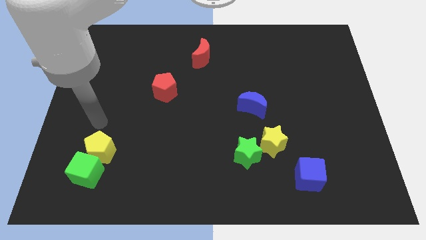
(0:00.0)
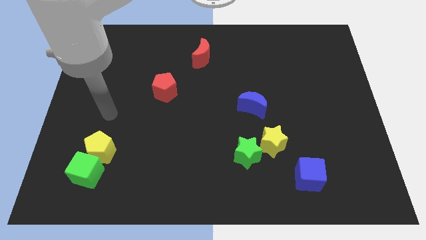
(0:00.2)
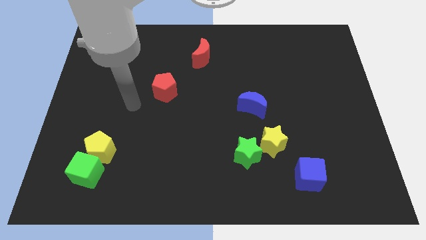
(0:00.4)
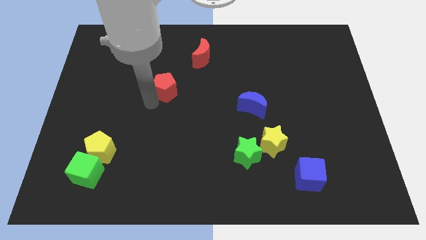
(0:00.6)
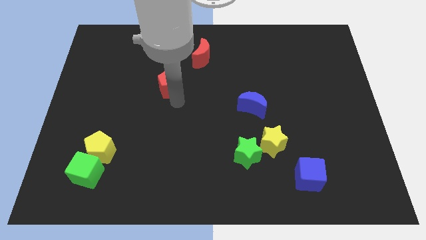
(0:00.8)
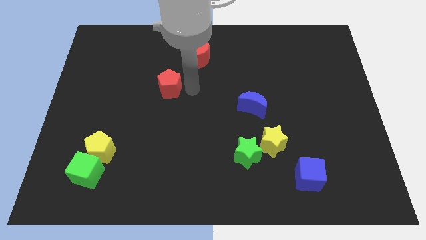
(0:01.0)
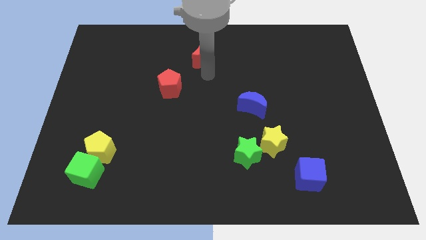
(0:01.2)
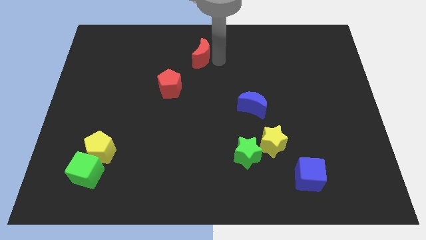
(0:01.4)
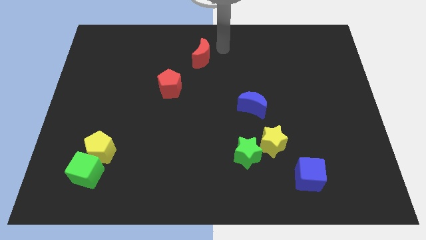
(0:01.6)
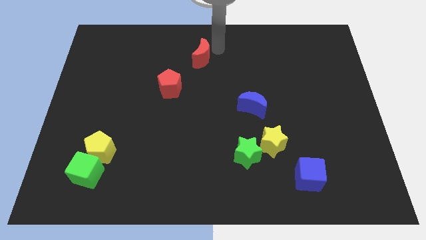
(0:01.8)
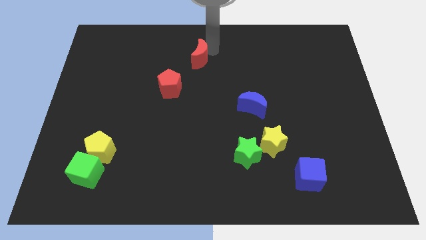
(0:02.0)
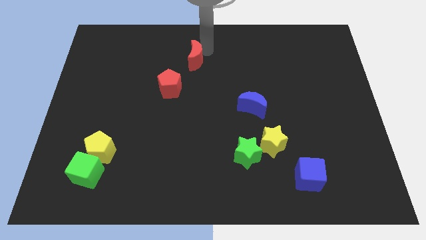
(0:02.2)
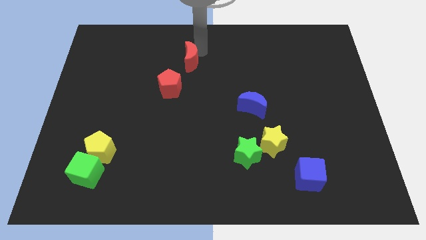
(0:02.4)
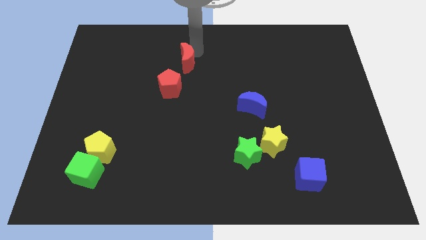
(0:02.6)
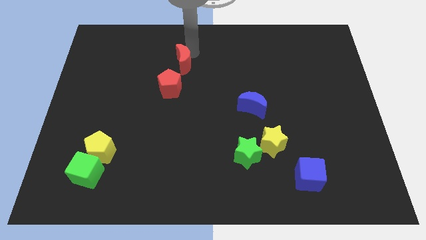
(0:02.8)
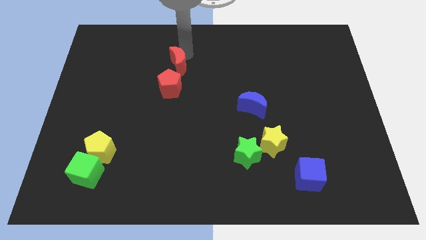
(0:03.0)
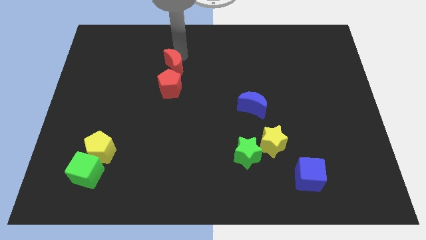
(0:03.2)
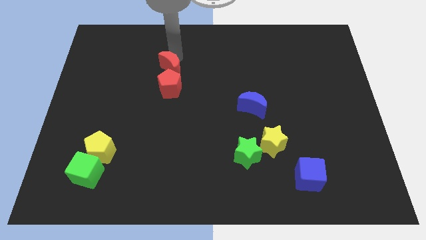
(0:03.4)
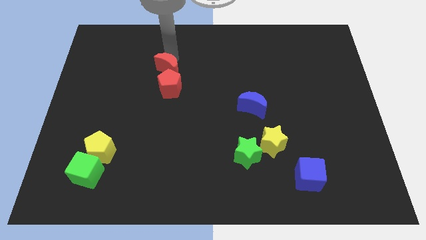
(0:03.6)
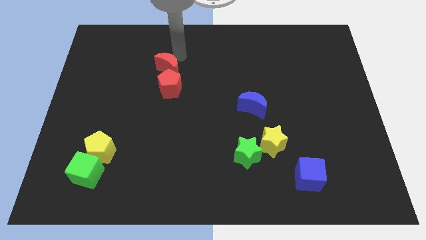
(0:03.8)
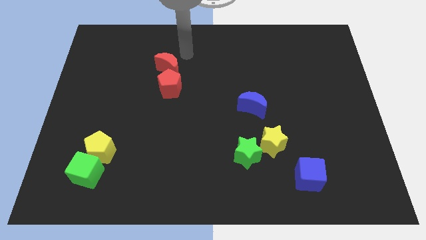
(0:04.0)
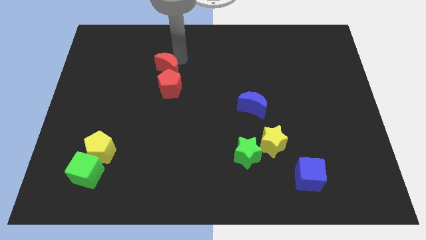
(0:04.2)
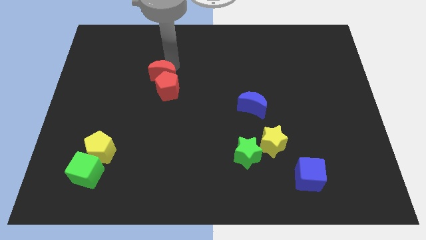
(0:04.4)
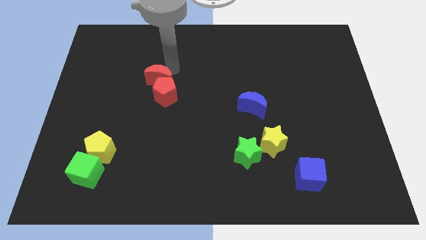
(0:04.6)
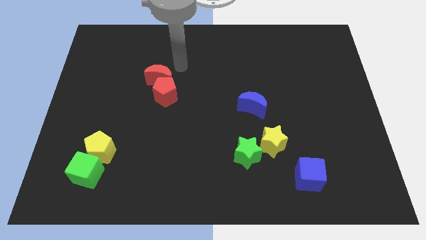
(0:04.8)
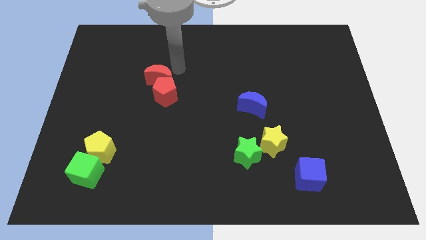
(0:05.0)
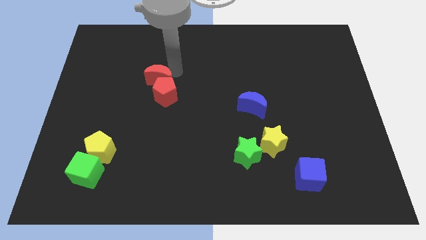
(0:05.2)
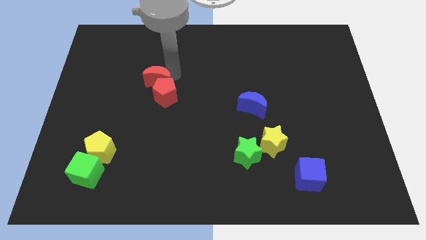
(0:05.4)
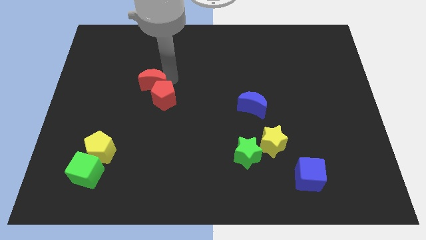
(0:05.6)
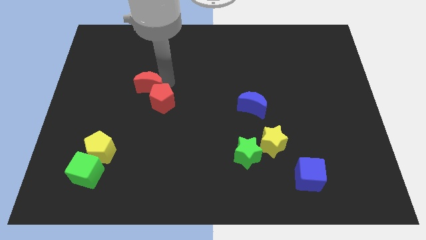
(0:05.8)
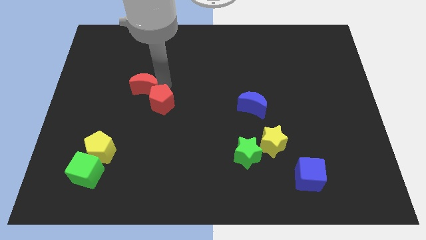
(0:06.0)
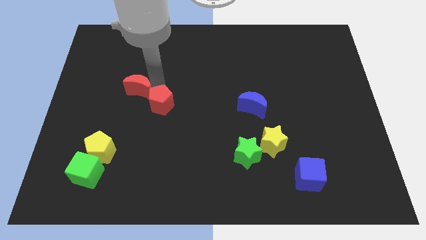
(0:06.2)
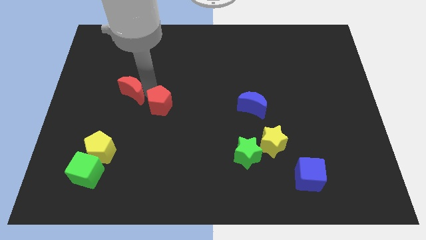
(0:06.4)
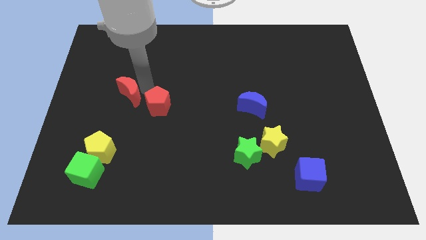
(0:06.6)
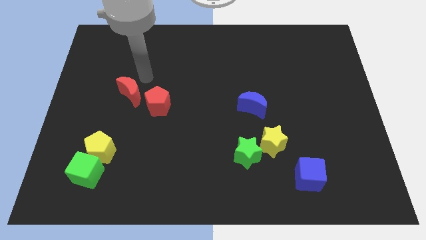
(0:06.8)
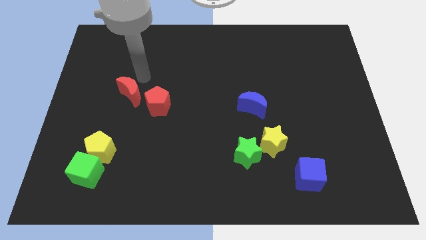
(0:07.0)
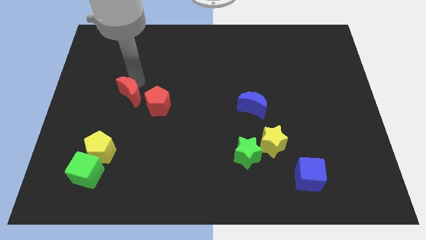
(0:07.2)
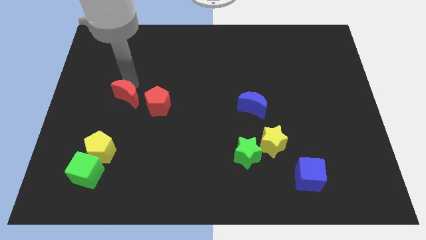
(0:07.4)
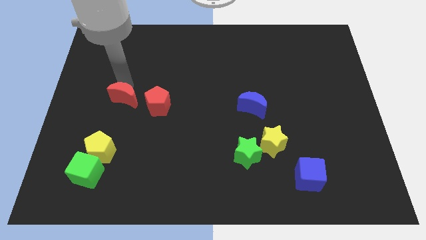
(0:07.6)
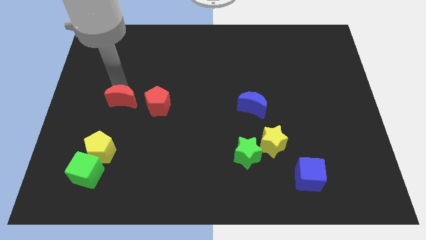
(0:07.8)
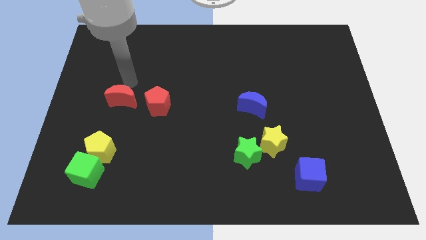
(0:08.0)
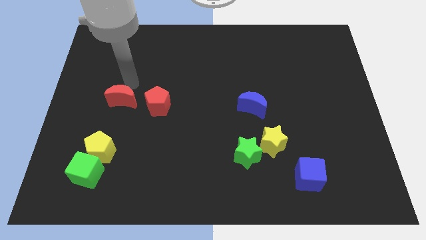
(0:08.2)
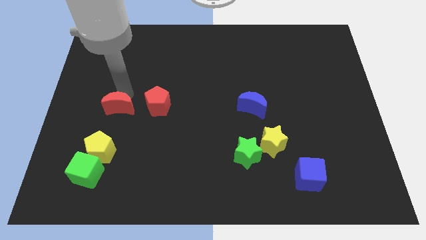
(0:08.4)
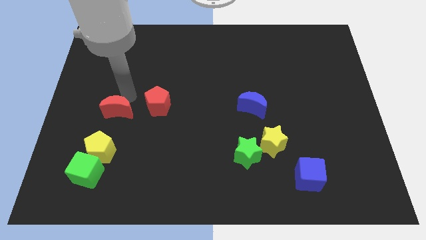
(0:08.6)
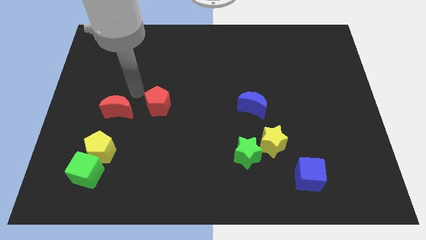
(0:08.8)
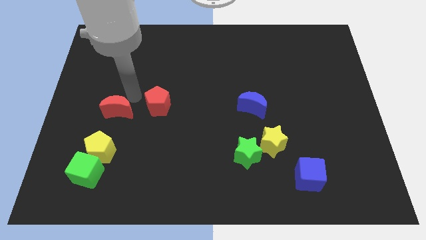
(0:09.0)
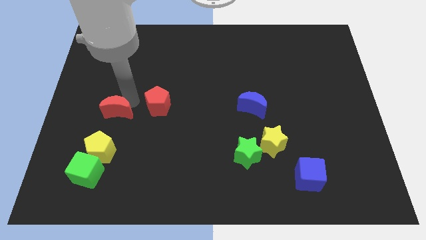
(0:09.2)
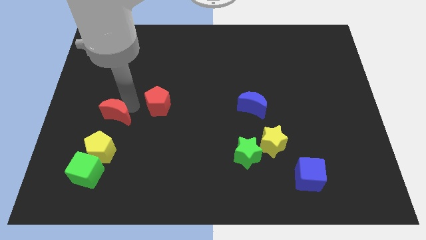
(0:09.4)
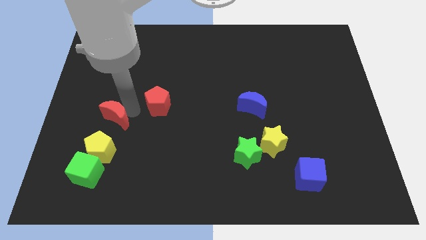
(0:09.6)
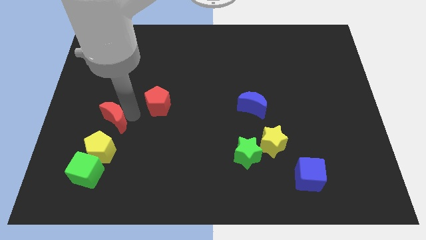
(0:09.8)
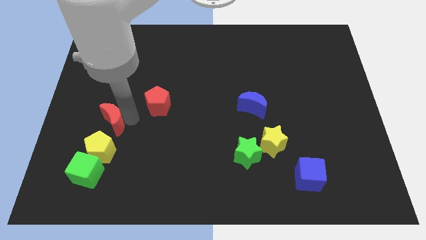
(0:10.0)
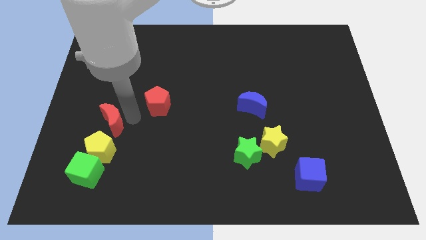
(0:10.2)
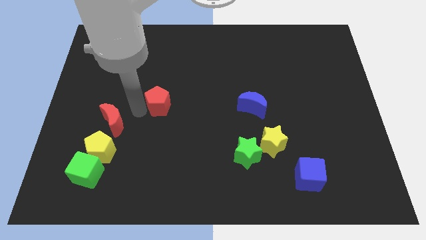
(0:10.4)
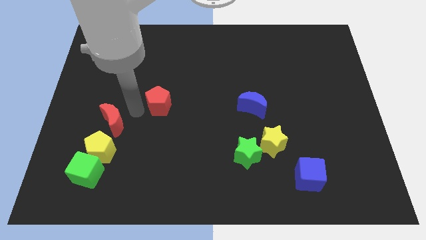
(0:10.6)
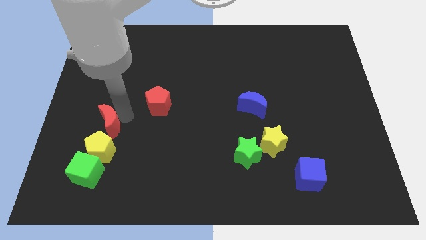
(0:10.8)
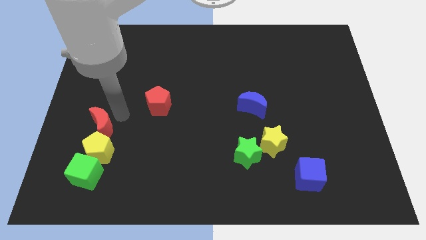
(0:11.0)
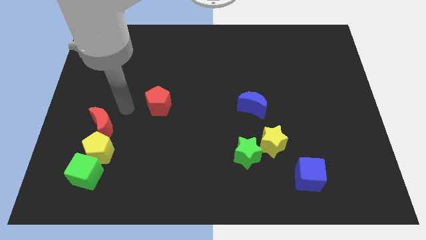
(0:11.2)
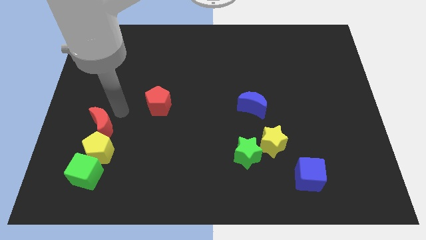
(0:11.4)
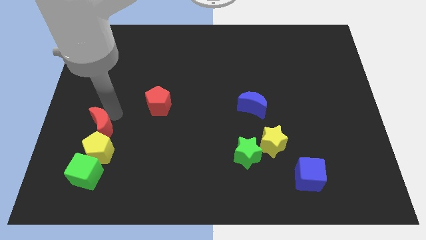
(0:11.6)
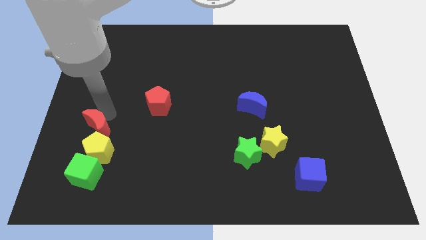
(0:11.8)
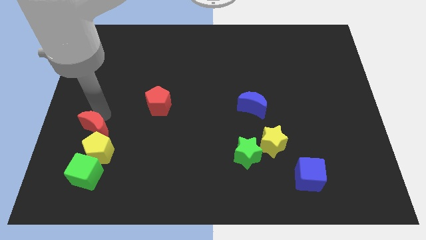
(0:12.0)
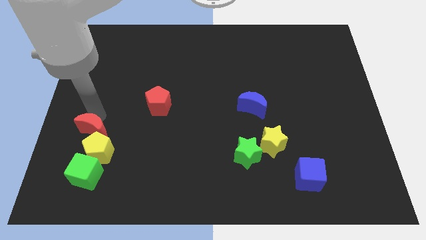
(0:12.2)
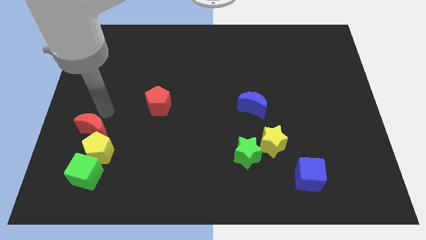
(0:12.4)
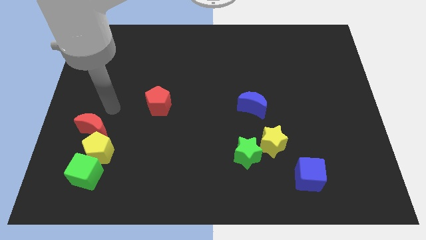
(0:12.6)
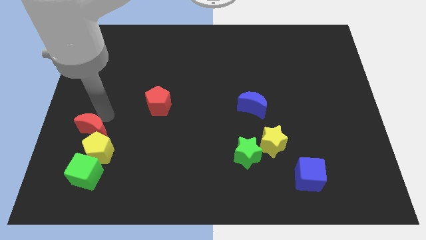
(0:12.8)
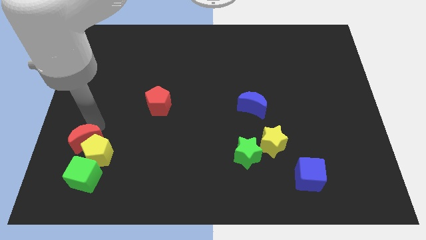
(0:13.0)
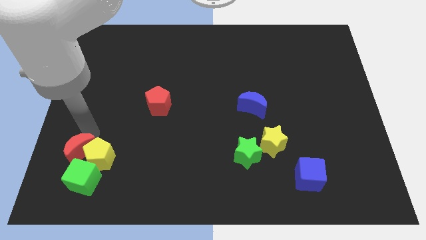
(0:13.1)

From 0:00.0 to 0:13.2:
slide the red moon to the bottom left side of the yellow pentagon

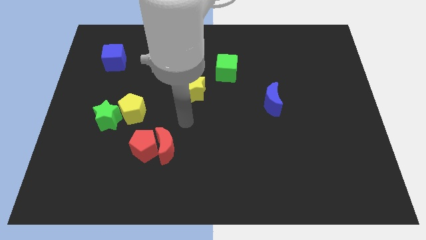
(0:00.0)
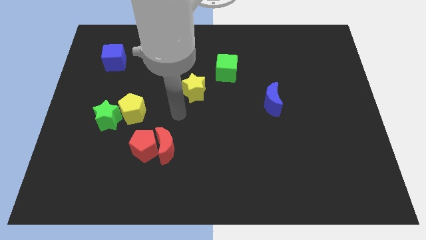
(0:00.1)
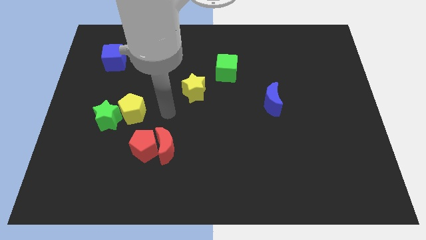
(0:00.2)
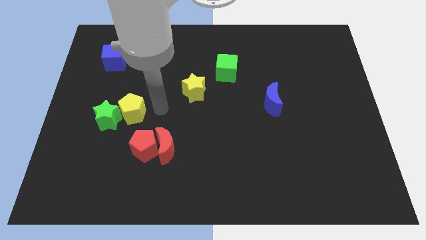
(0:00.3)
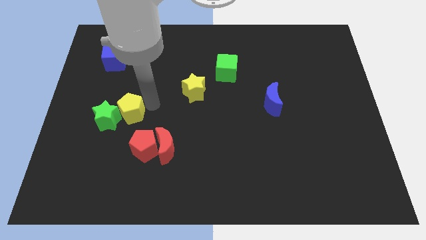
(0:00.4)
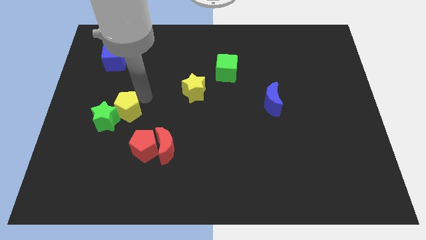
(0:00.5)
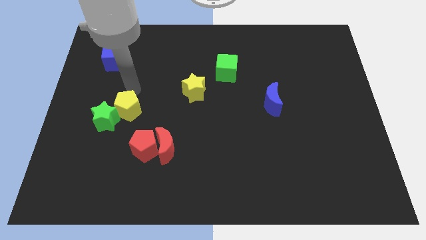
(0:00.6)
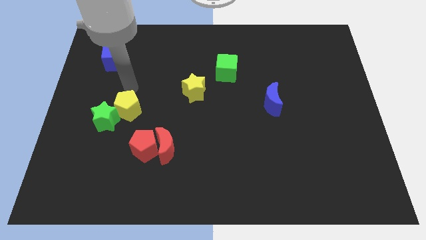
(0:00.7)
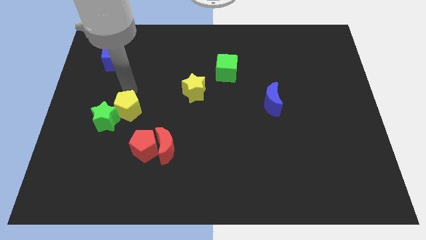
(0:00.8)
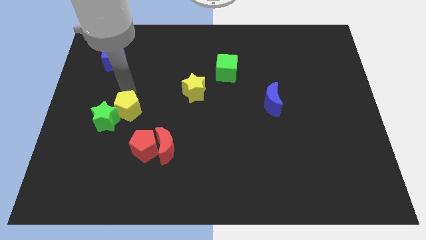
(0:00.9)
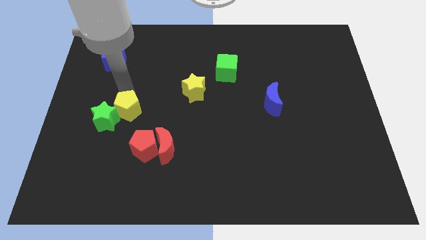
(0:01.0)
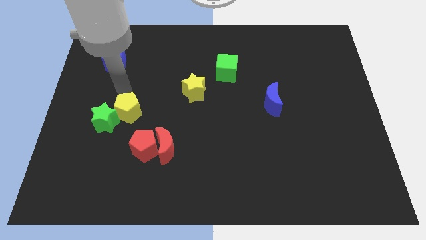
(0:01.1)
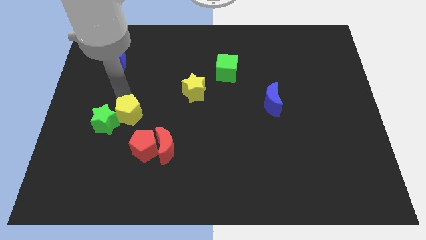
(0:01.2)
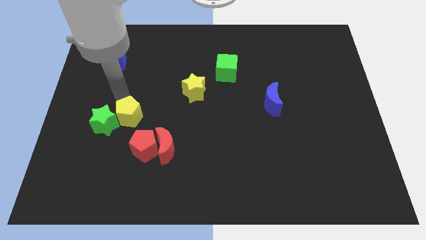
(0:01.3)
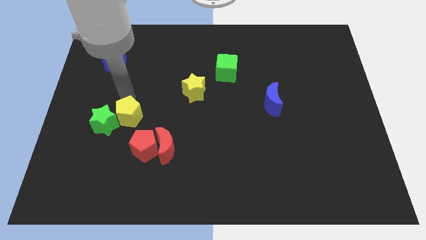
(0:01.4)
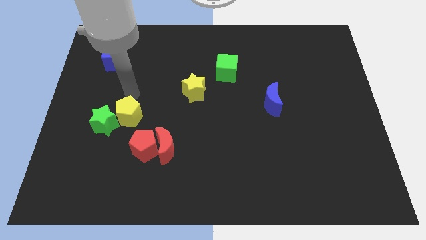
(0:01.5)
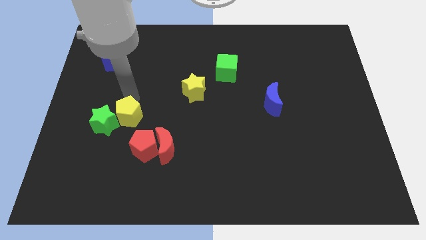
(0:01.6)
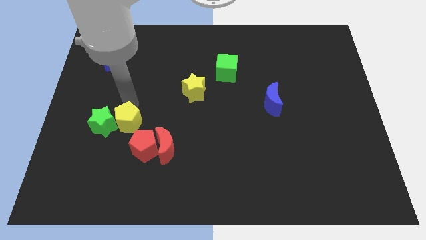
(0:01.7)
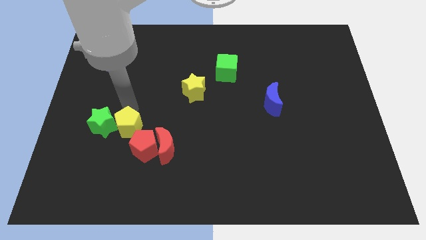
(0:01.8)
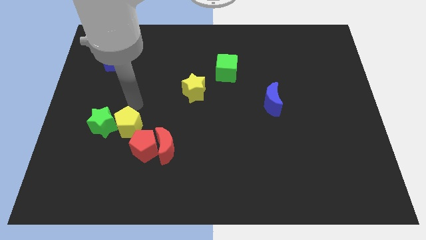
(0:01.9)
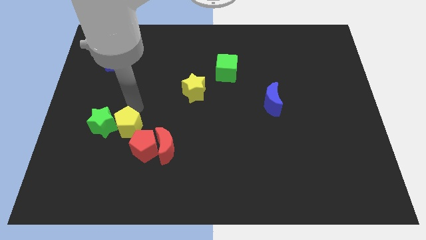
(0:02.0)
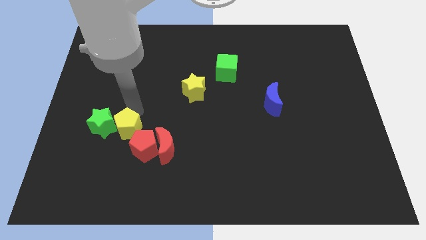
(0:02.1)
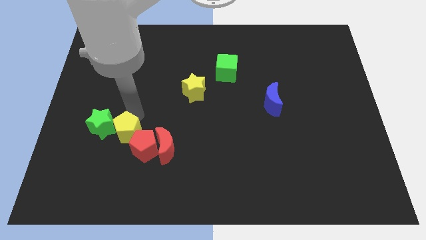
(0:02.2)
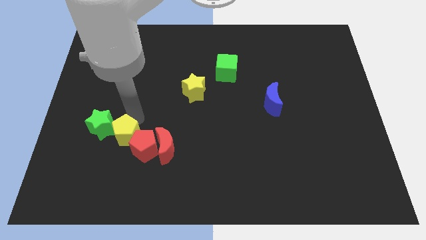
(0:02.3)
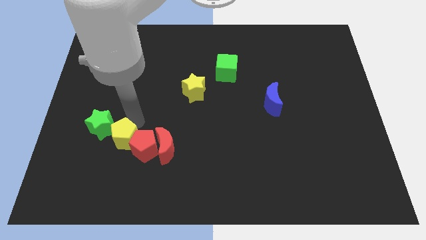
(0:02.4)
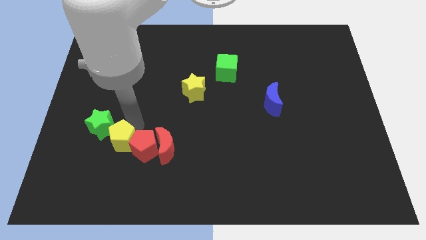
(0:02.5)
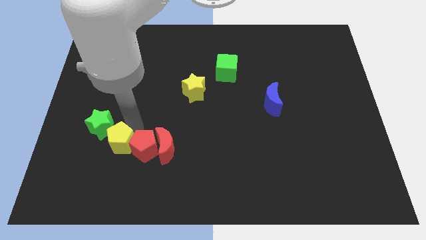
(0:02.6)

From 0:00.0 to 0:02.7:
put the yellow pentagon to the bottom left of the red pentagon
